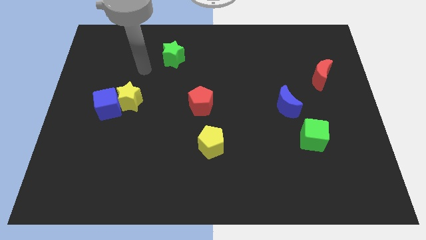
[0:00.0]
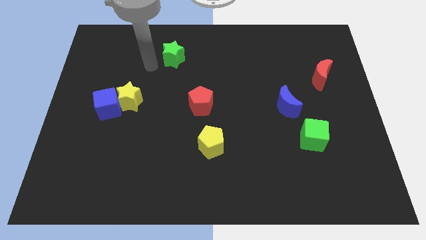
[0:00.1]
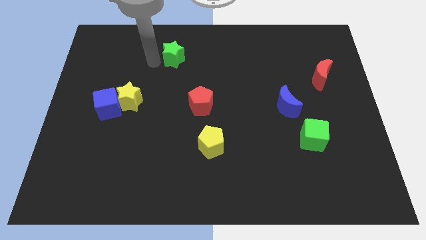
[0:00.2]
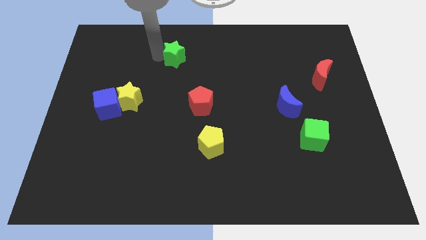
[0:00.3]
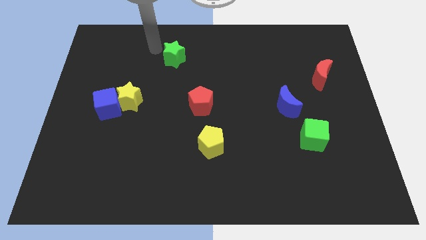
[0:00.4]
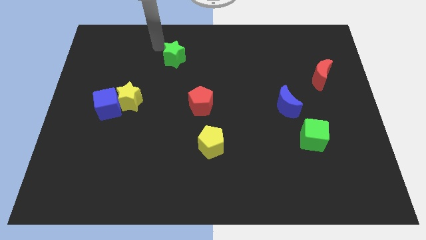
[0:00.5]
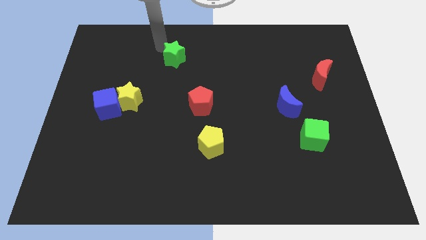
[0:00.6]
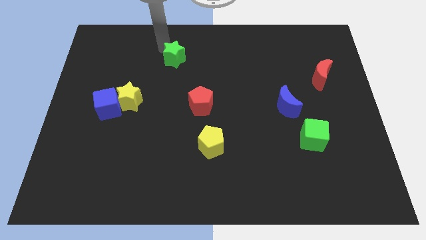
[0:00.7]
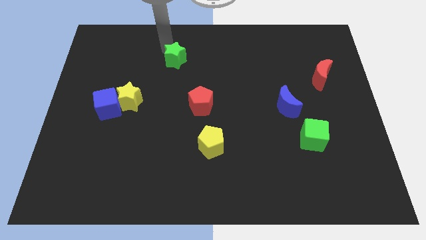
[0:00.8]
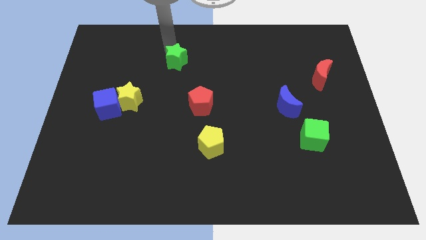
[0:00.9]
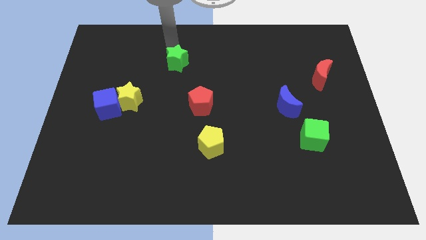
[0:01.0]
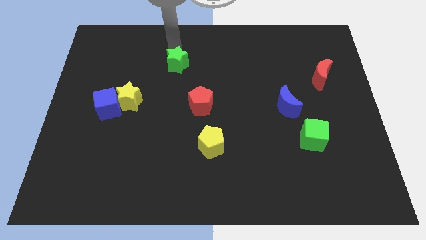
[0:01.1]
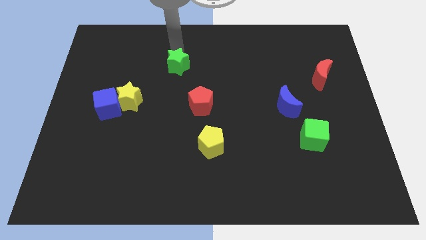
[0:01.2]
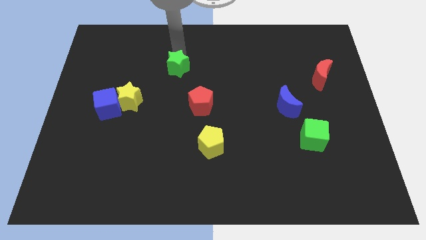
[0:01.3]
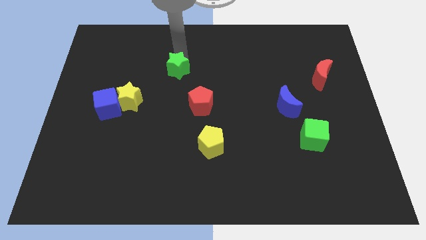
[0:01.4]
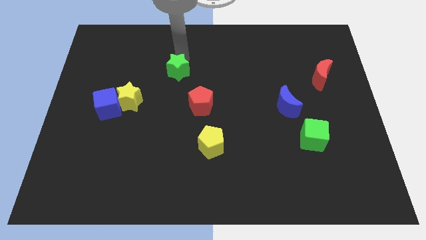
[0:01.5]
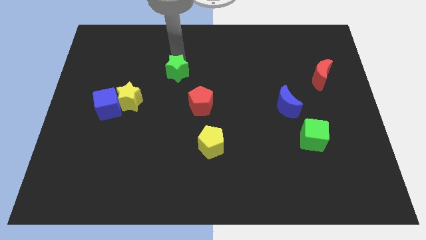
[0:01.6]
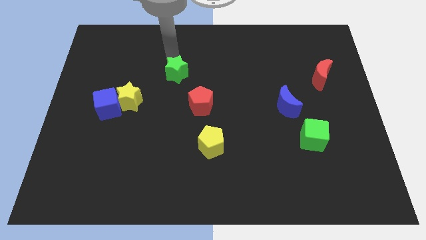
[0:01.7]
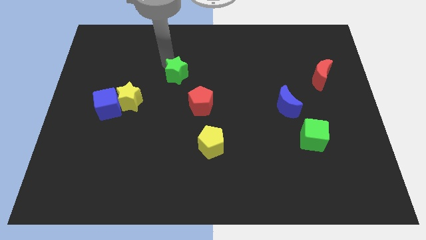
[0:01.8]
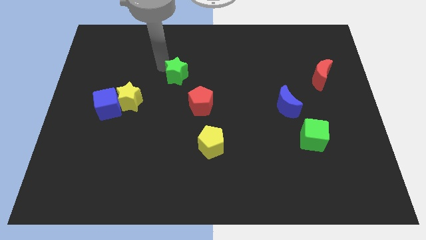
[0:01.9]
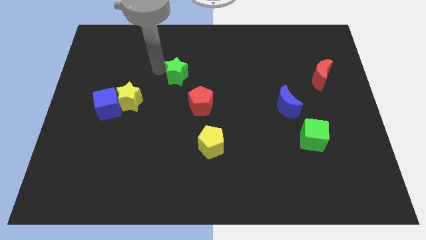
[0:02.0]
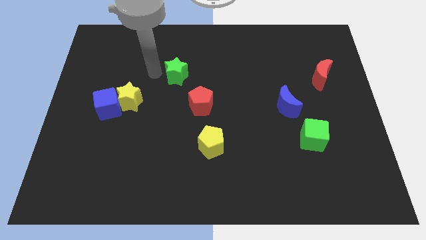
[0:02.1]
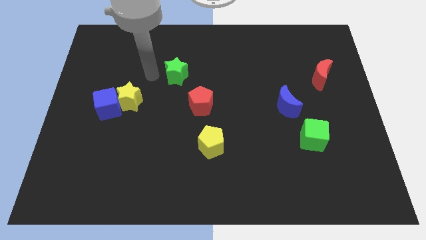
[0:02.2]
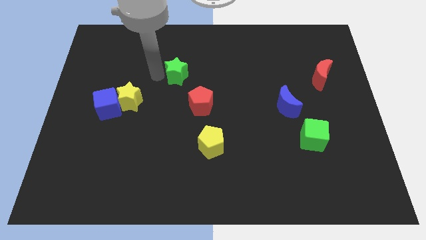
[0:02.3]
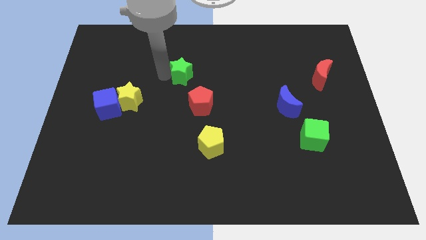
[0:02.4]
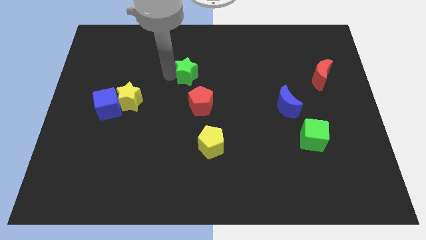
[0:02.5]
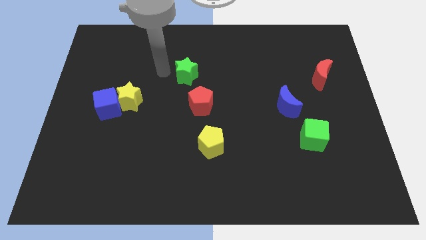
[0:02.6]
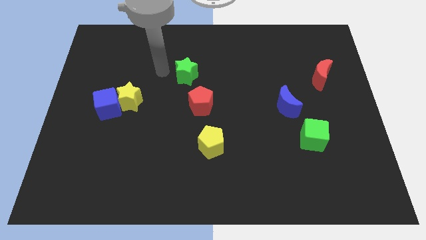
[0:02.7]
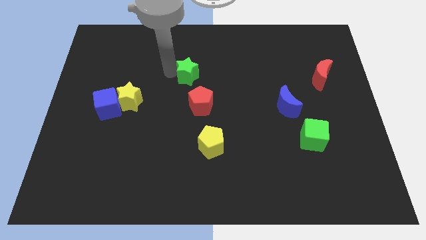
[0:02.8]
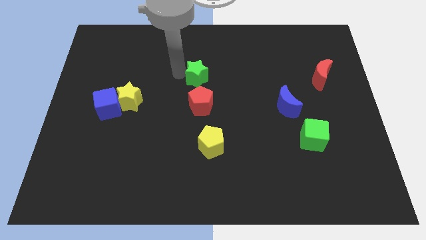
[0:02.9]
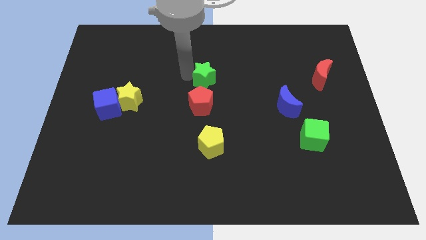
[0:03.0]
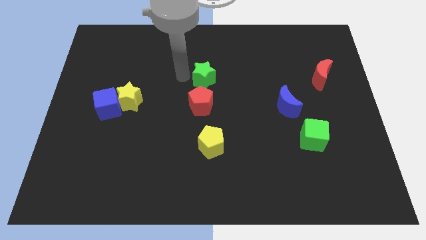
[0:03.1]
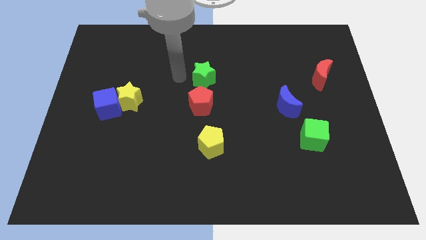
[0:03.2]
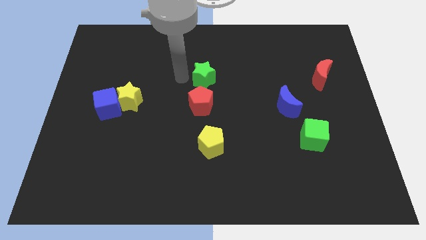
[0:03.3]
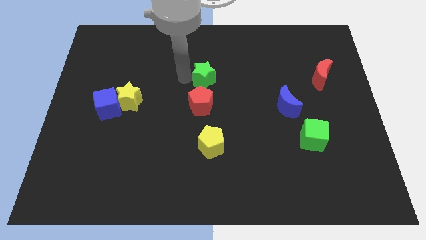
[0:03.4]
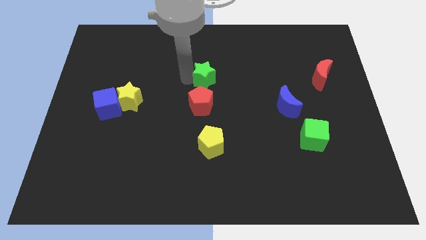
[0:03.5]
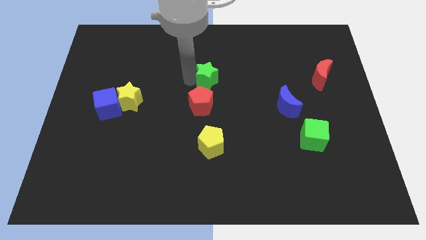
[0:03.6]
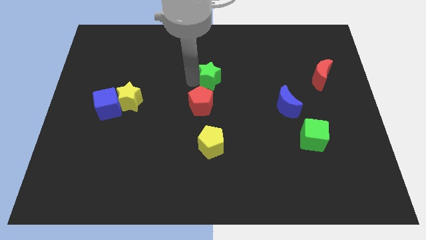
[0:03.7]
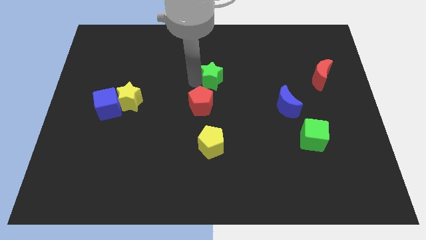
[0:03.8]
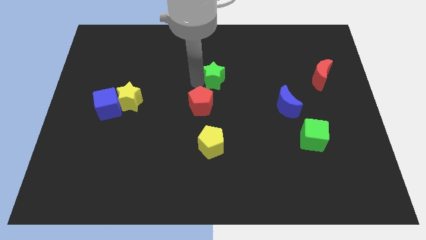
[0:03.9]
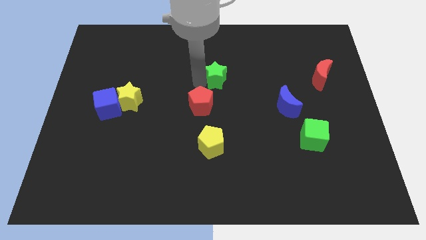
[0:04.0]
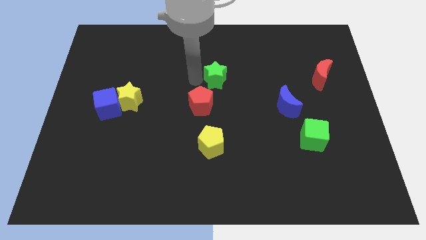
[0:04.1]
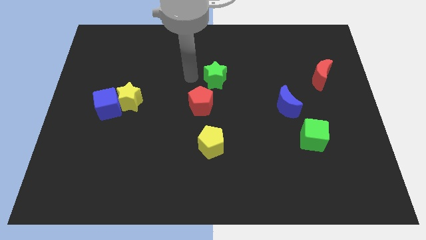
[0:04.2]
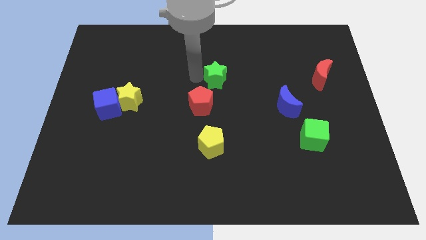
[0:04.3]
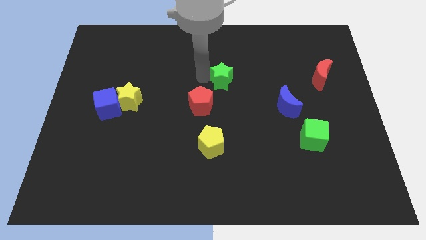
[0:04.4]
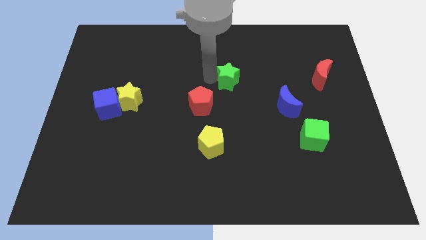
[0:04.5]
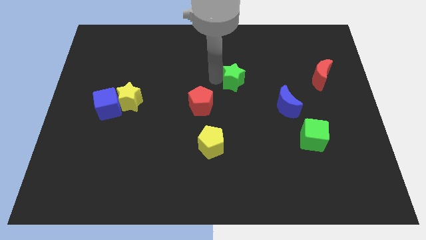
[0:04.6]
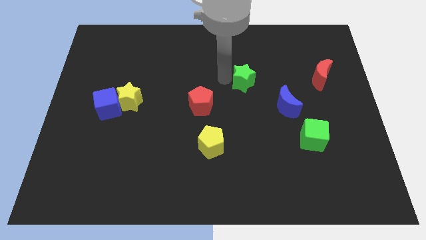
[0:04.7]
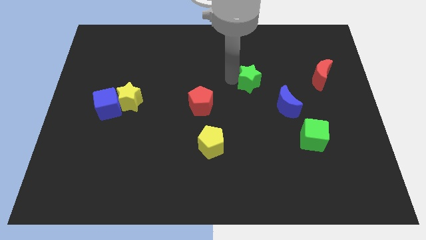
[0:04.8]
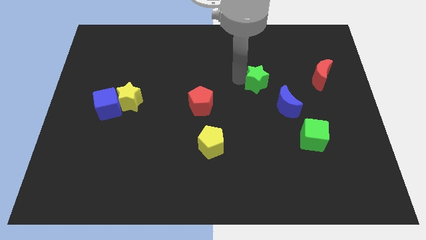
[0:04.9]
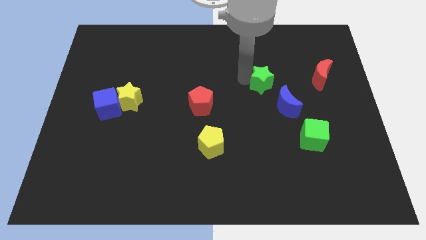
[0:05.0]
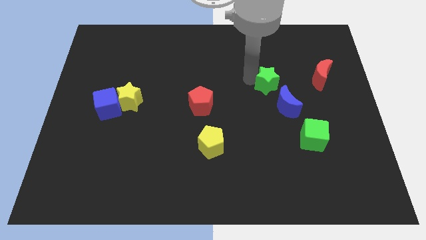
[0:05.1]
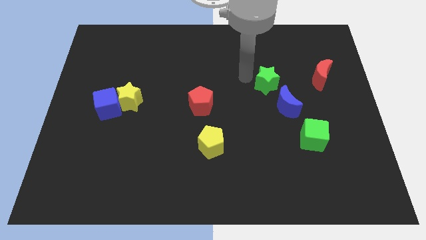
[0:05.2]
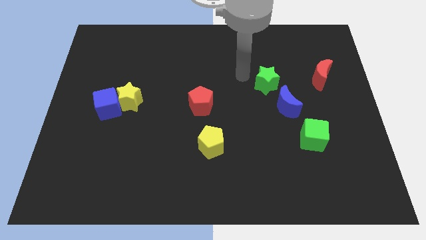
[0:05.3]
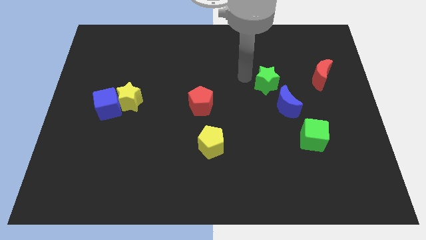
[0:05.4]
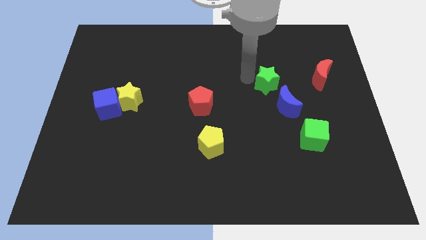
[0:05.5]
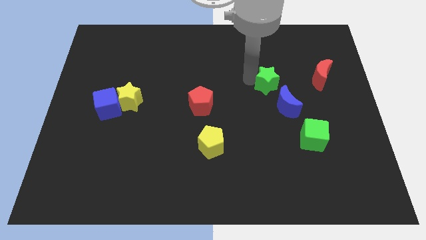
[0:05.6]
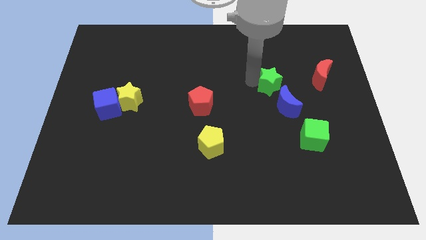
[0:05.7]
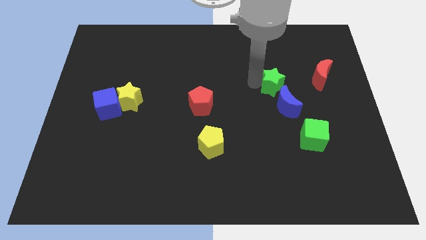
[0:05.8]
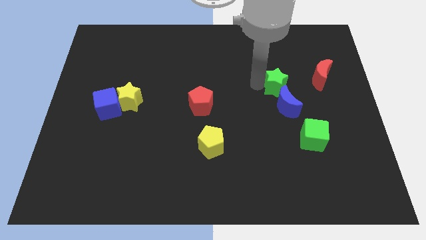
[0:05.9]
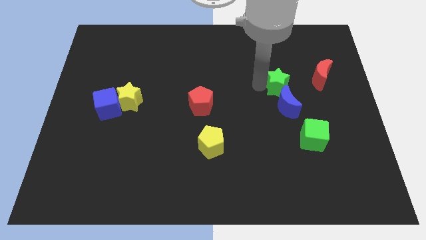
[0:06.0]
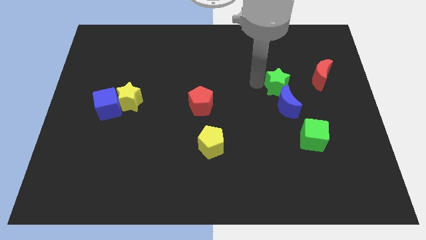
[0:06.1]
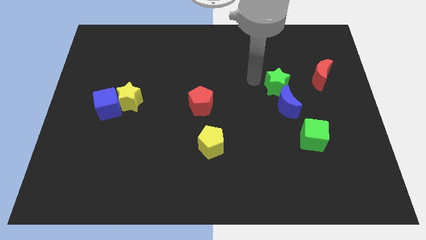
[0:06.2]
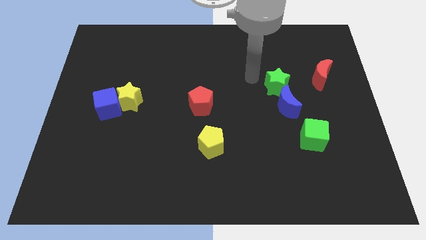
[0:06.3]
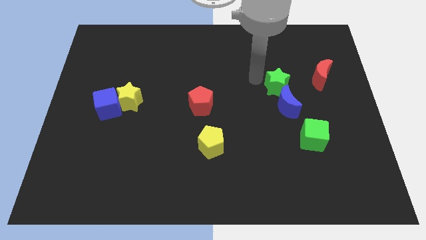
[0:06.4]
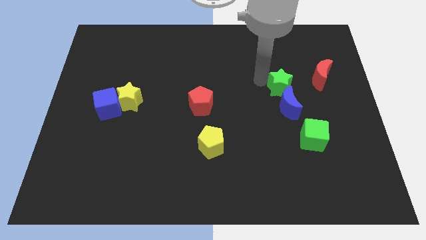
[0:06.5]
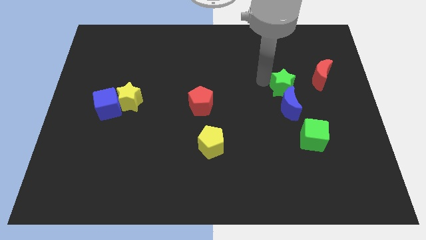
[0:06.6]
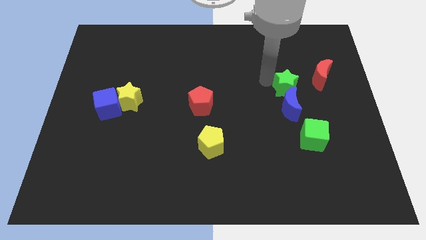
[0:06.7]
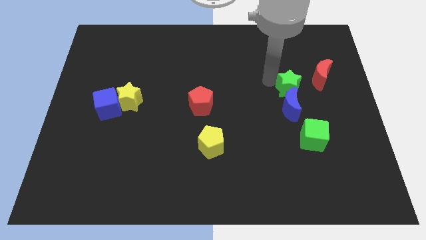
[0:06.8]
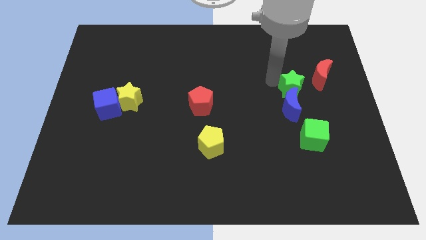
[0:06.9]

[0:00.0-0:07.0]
put the green star above the green cube
